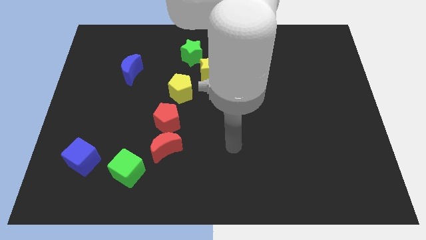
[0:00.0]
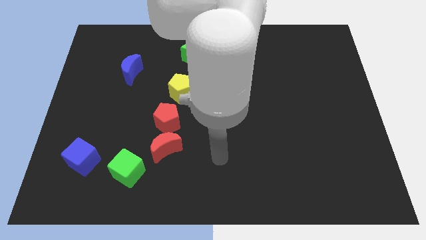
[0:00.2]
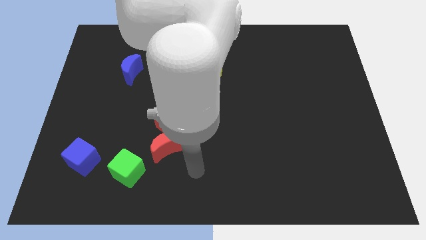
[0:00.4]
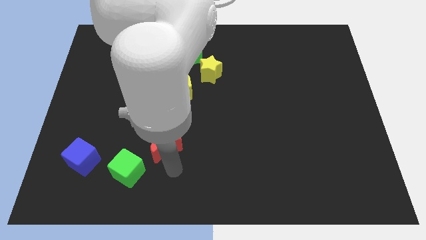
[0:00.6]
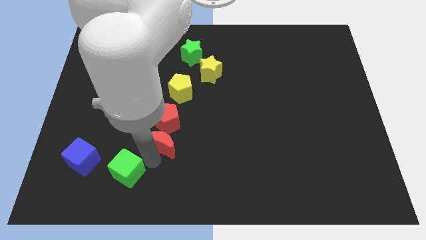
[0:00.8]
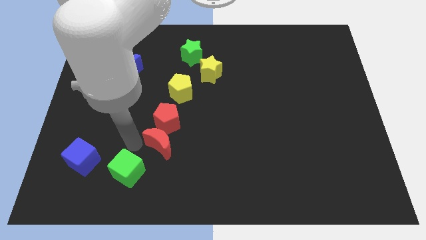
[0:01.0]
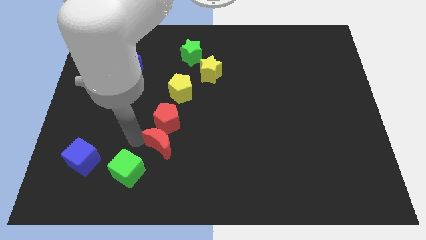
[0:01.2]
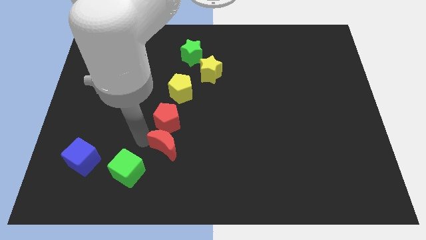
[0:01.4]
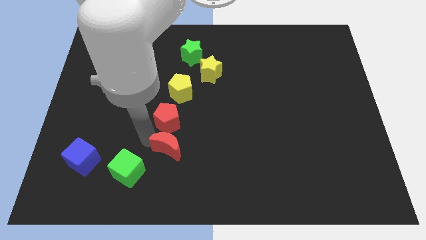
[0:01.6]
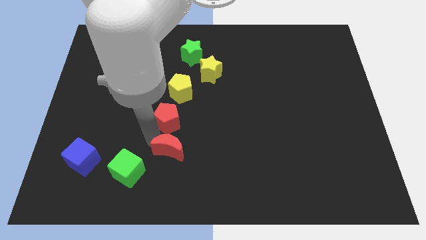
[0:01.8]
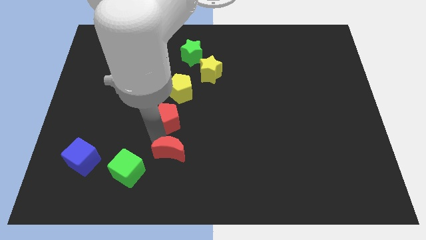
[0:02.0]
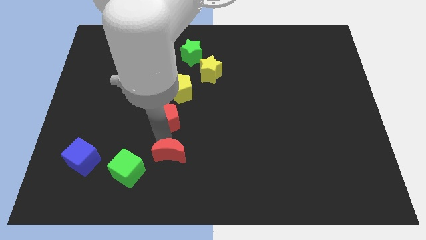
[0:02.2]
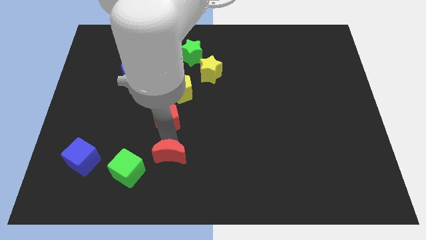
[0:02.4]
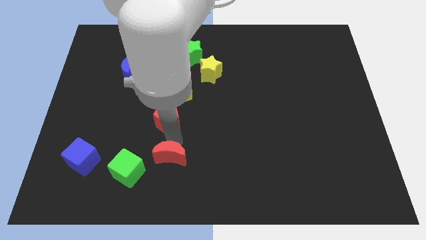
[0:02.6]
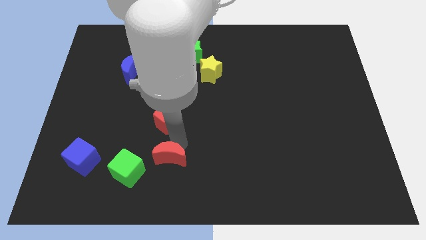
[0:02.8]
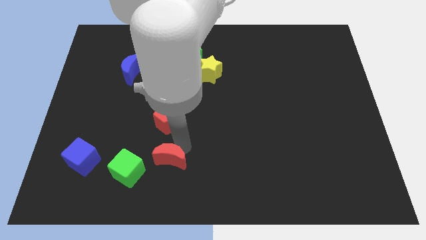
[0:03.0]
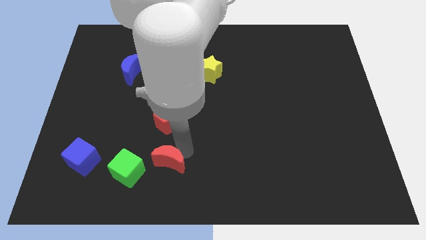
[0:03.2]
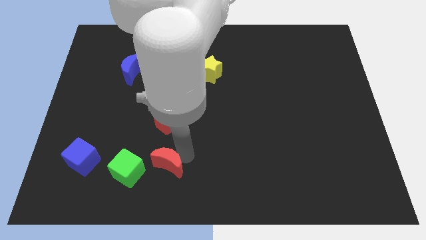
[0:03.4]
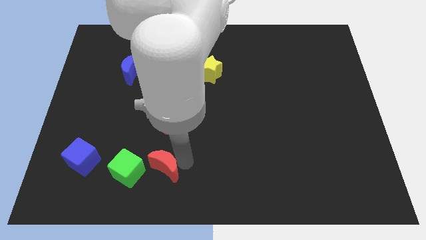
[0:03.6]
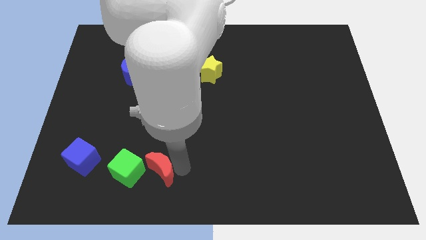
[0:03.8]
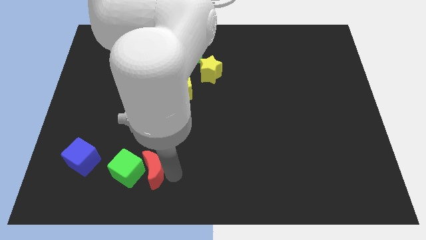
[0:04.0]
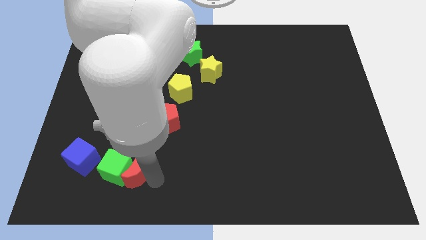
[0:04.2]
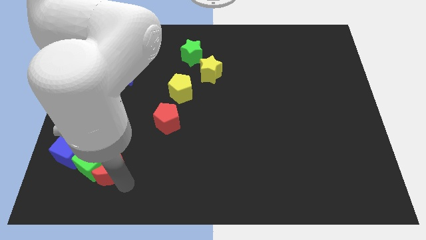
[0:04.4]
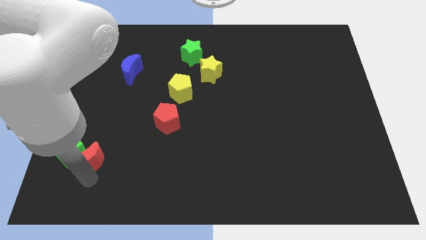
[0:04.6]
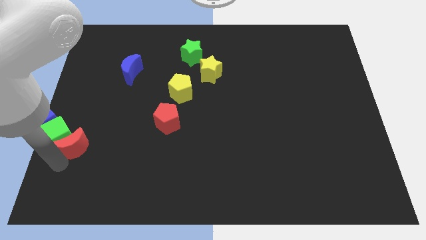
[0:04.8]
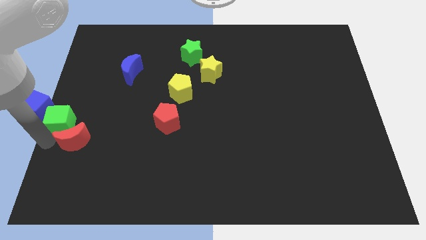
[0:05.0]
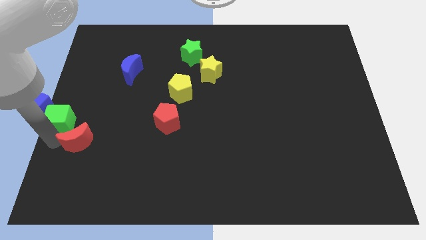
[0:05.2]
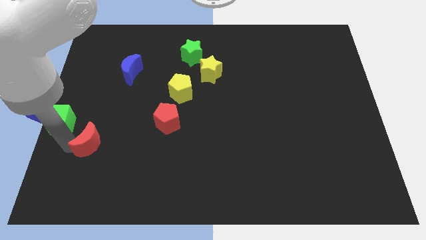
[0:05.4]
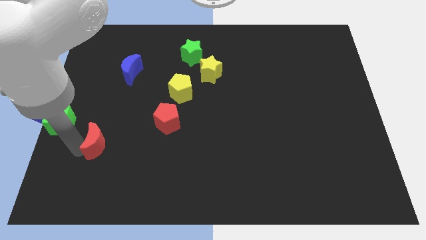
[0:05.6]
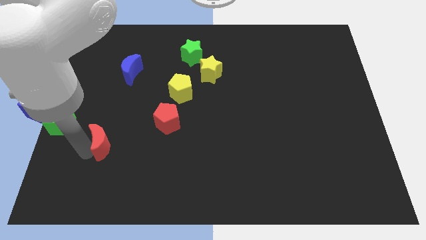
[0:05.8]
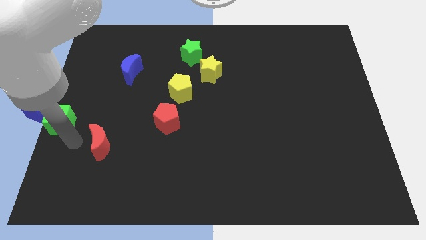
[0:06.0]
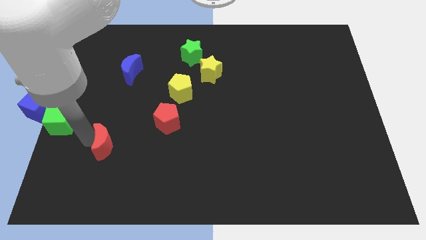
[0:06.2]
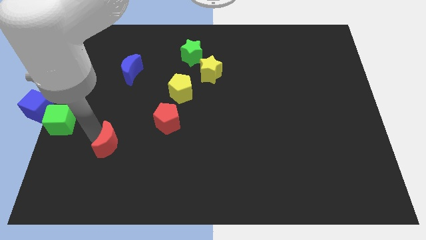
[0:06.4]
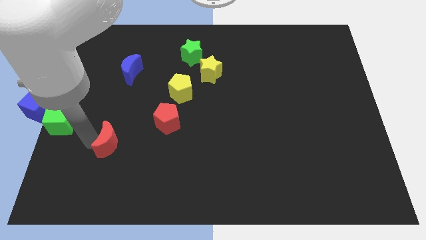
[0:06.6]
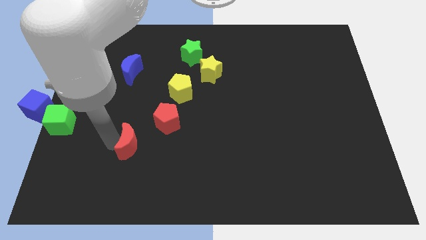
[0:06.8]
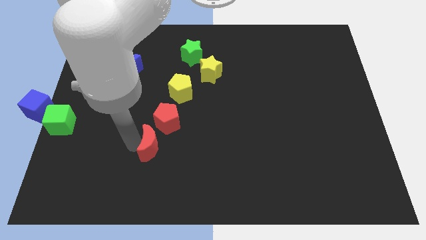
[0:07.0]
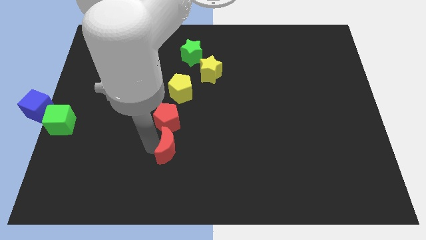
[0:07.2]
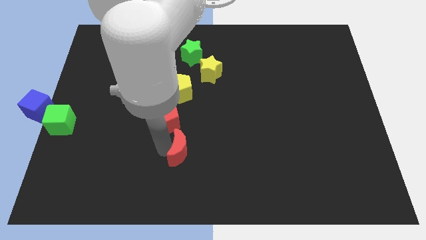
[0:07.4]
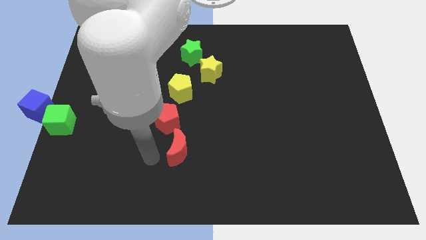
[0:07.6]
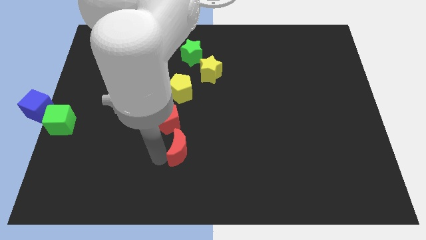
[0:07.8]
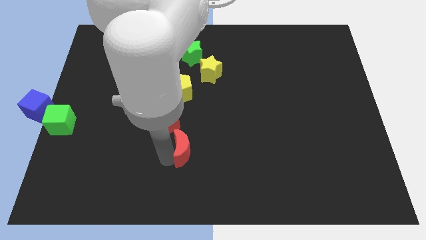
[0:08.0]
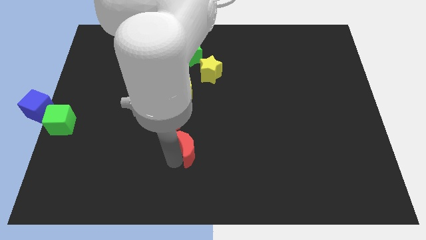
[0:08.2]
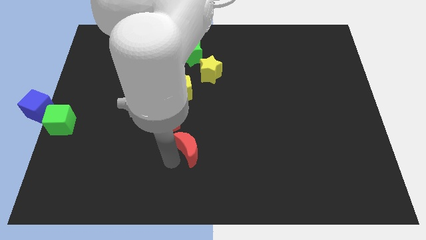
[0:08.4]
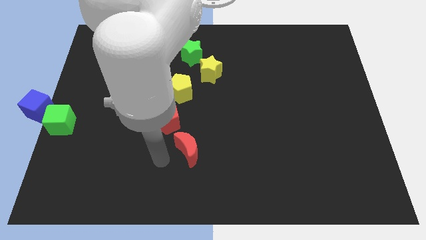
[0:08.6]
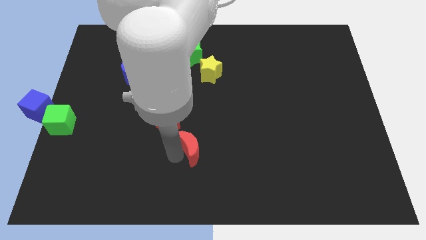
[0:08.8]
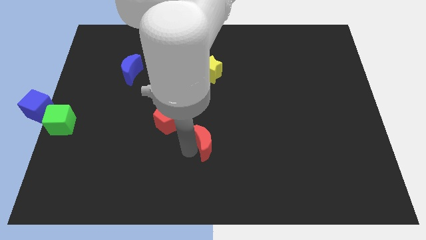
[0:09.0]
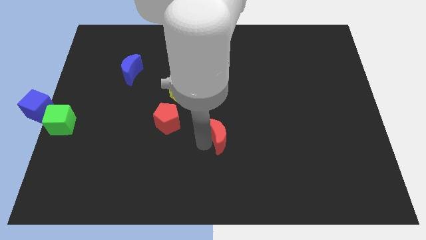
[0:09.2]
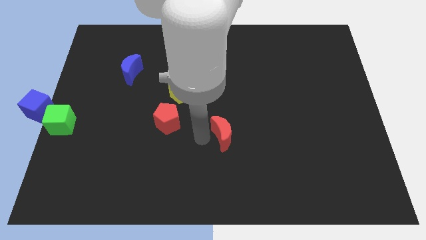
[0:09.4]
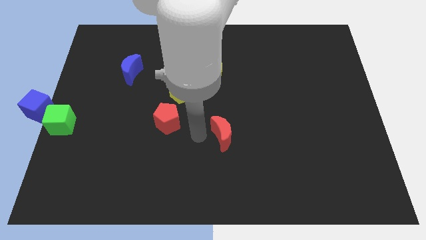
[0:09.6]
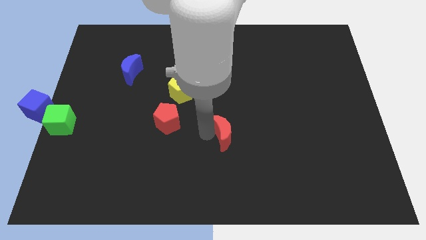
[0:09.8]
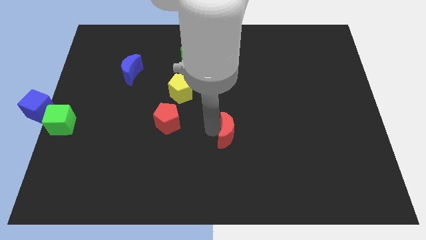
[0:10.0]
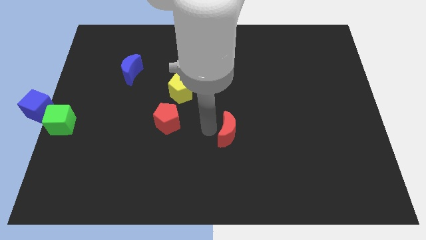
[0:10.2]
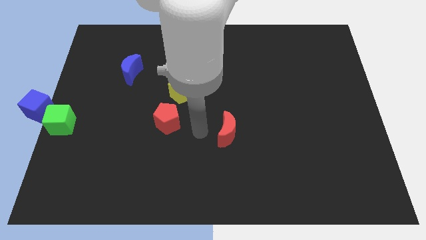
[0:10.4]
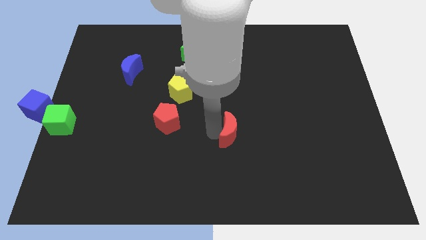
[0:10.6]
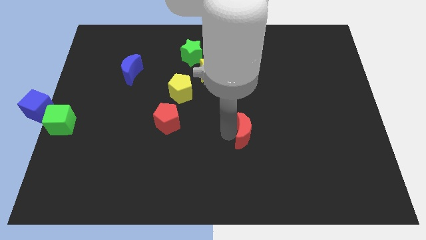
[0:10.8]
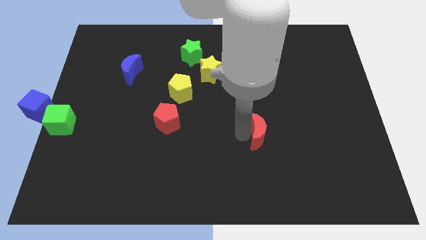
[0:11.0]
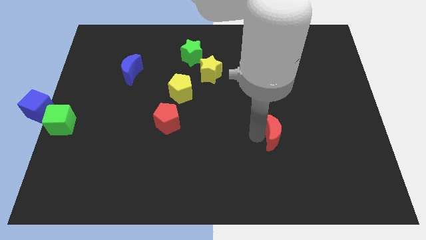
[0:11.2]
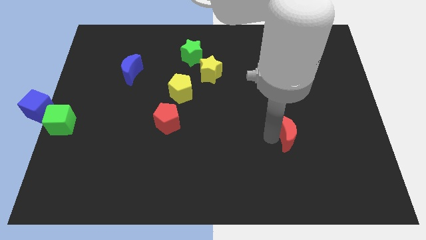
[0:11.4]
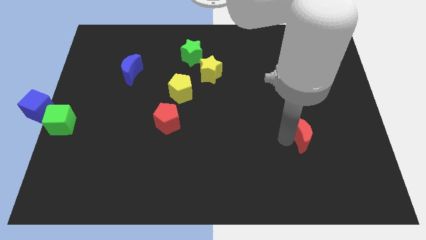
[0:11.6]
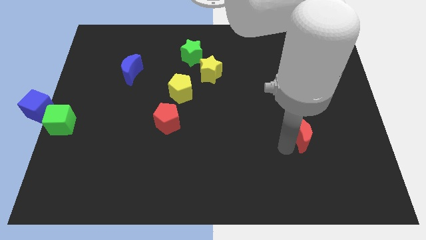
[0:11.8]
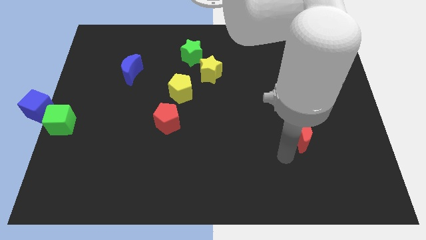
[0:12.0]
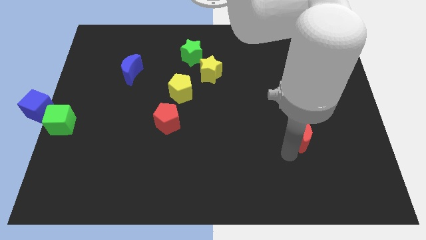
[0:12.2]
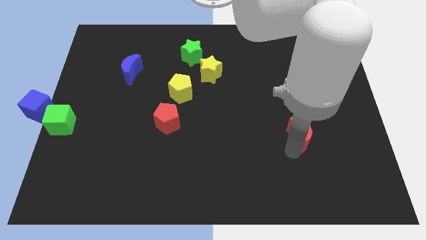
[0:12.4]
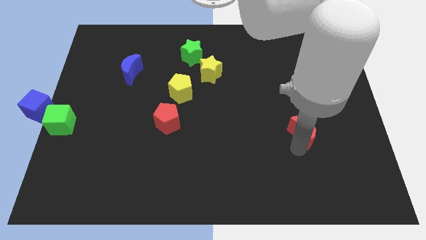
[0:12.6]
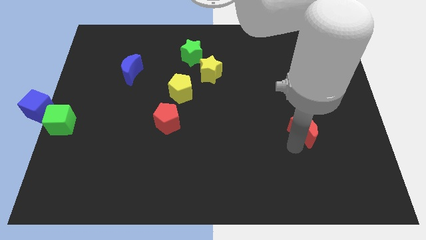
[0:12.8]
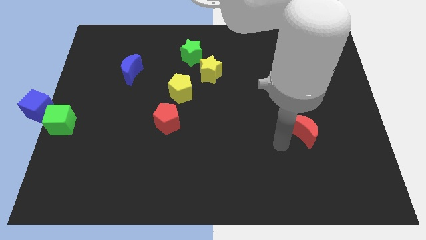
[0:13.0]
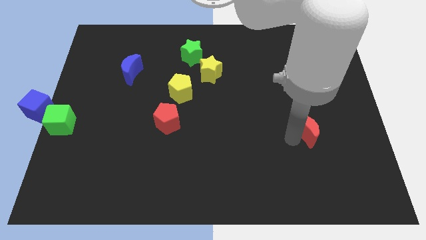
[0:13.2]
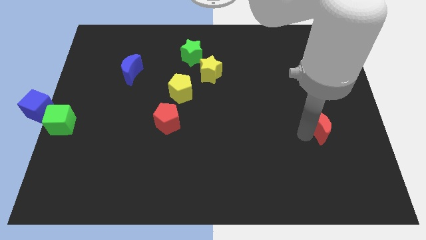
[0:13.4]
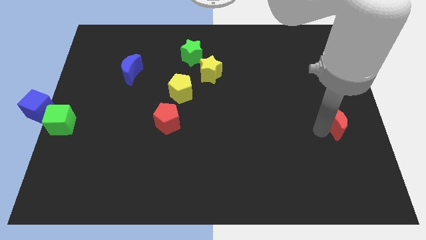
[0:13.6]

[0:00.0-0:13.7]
move the red moon to the right side

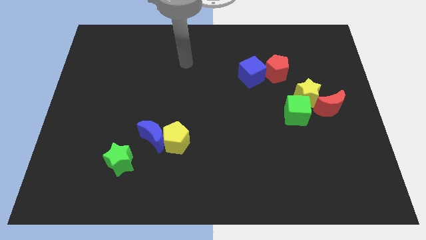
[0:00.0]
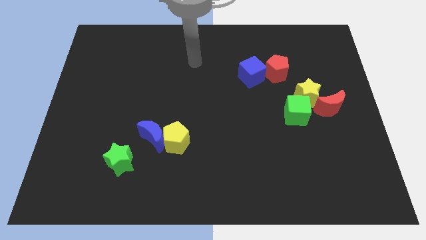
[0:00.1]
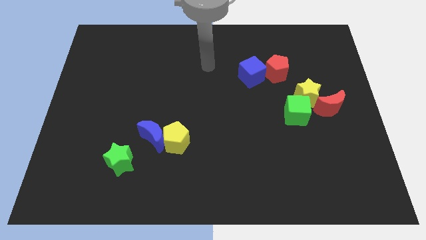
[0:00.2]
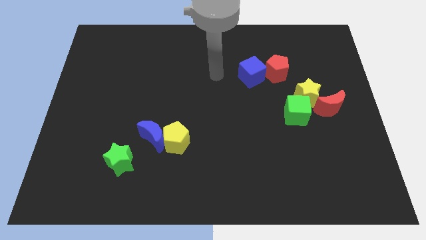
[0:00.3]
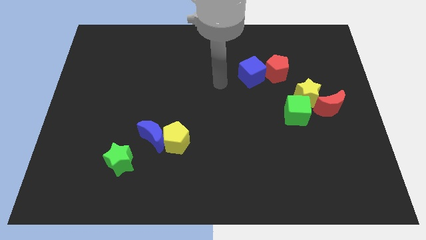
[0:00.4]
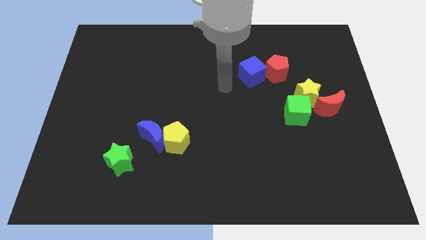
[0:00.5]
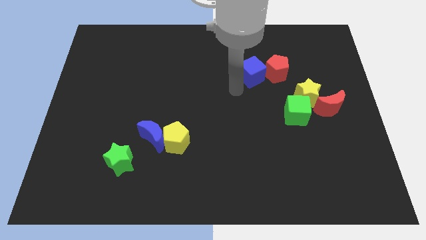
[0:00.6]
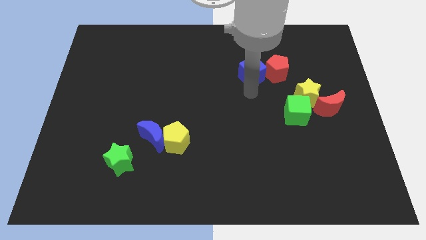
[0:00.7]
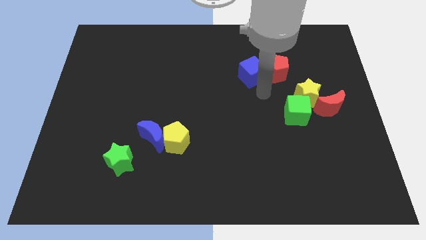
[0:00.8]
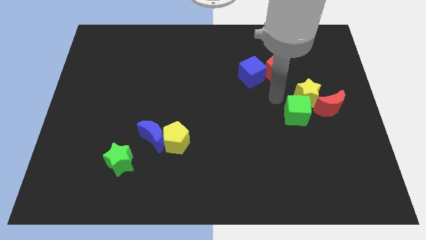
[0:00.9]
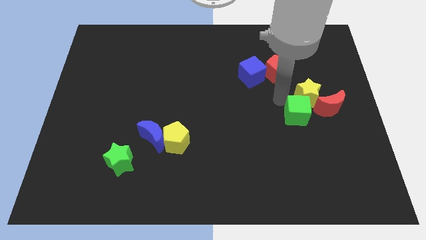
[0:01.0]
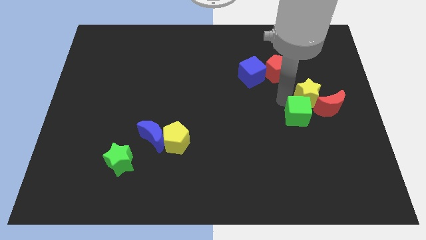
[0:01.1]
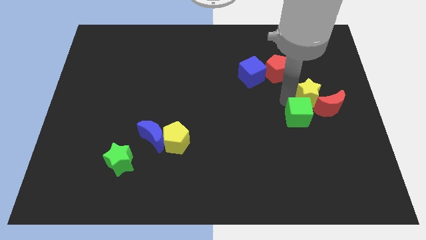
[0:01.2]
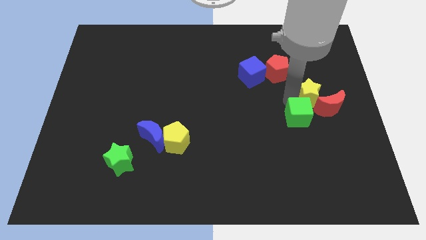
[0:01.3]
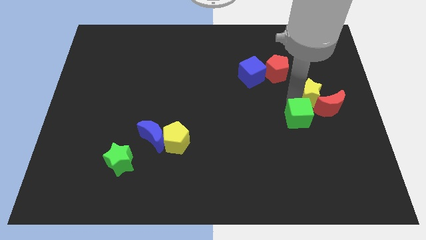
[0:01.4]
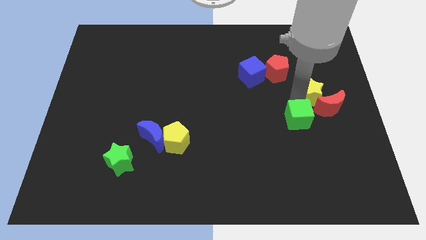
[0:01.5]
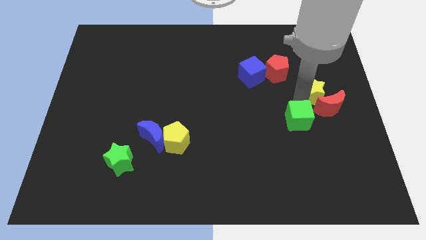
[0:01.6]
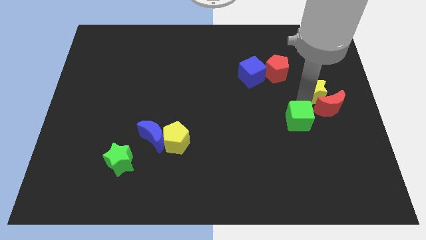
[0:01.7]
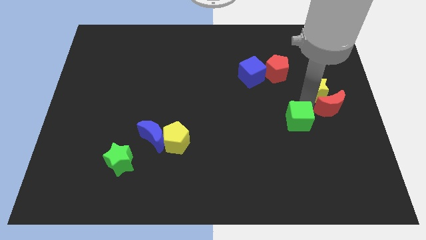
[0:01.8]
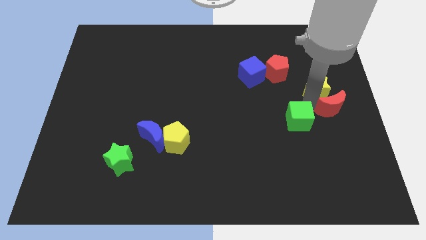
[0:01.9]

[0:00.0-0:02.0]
push the yellow star to the center right
